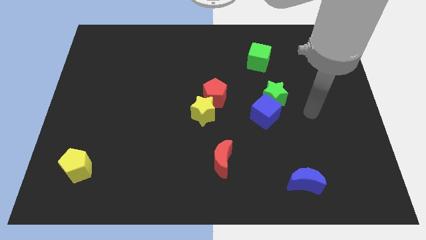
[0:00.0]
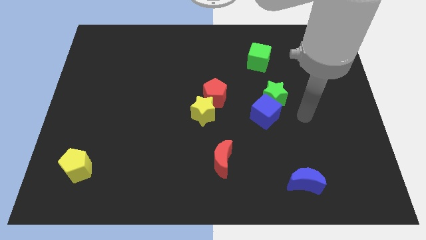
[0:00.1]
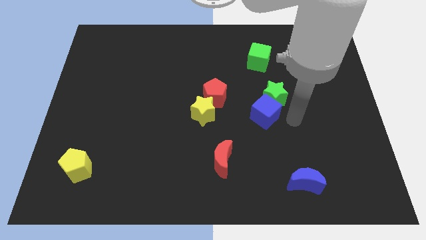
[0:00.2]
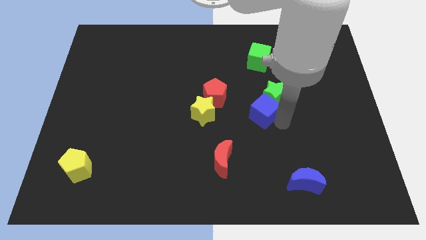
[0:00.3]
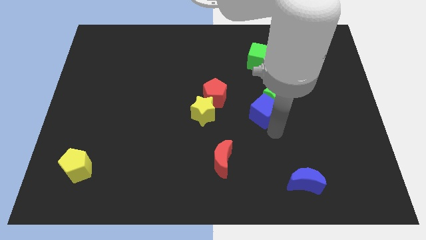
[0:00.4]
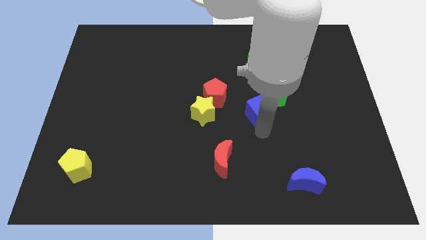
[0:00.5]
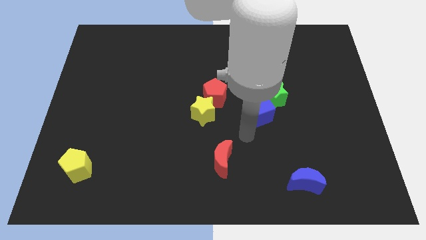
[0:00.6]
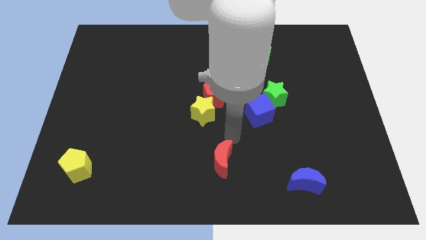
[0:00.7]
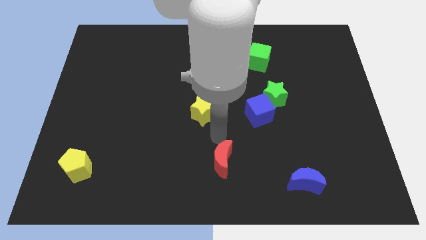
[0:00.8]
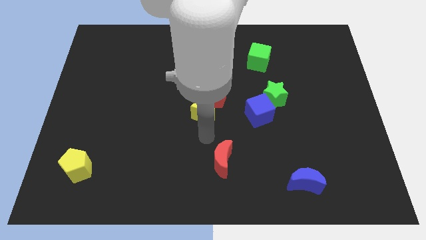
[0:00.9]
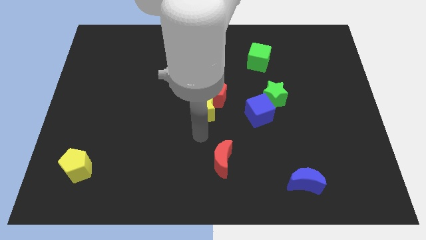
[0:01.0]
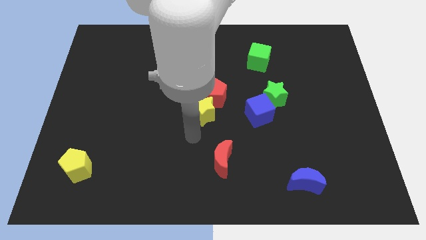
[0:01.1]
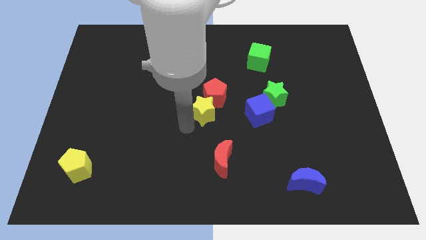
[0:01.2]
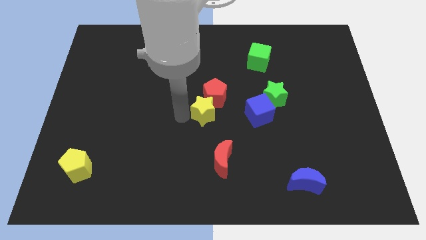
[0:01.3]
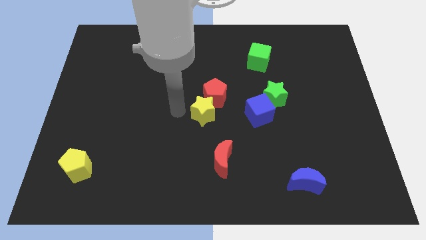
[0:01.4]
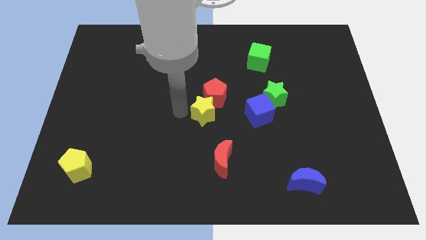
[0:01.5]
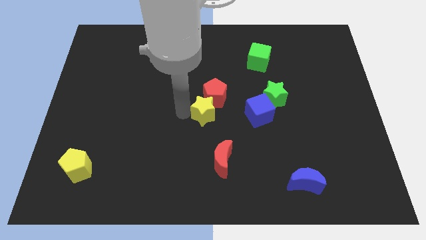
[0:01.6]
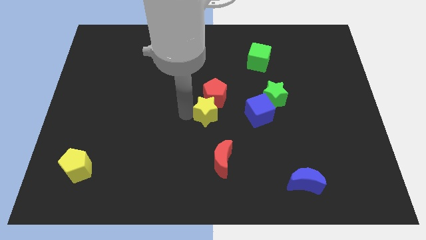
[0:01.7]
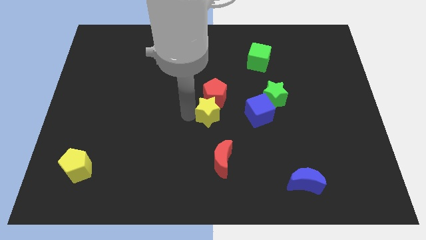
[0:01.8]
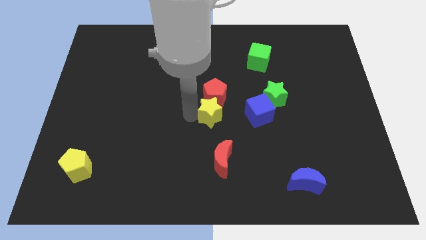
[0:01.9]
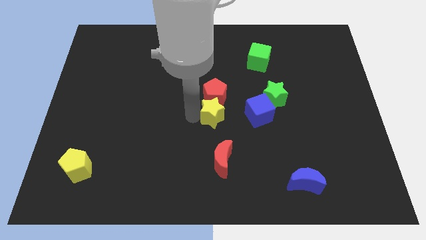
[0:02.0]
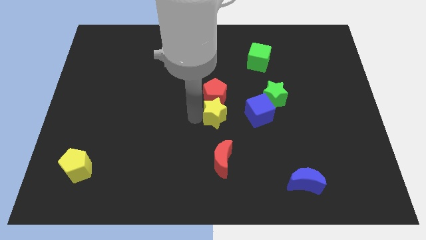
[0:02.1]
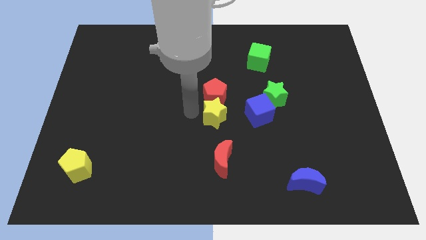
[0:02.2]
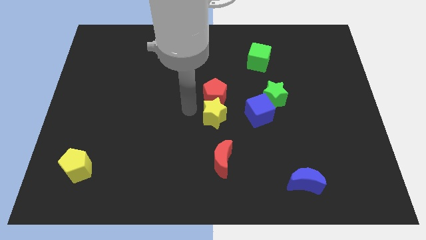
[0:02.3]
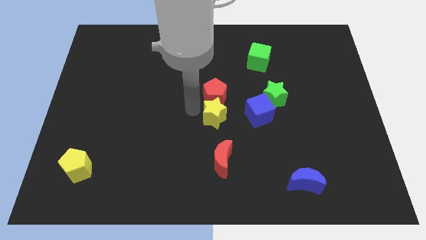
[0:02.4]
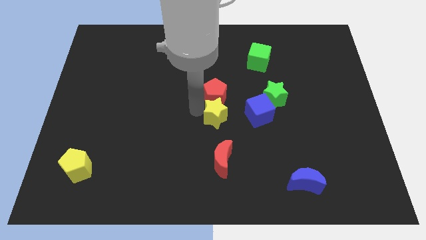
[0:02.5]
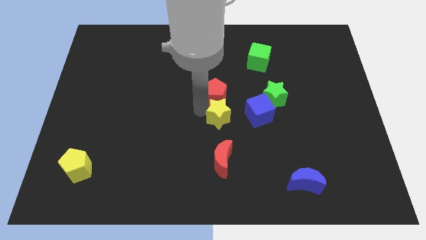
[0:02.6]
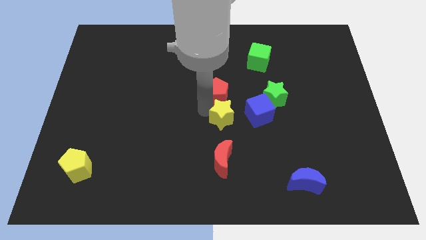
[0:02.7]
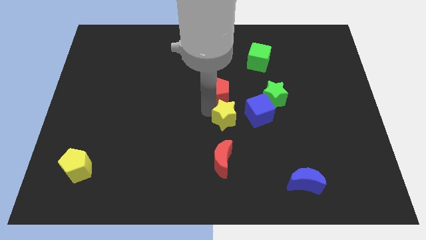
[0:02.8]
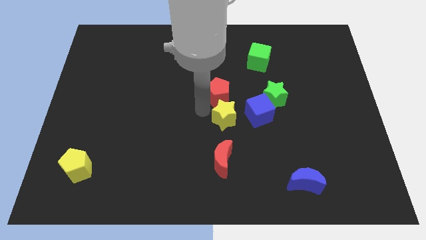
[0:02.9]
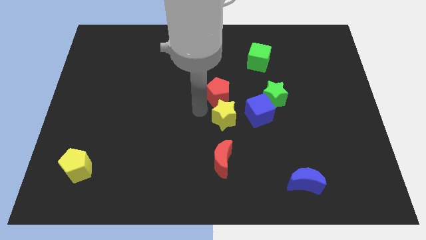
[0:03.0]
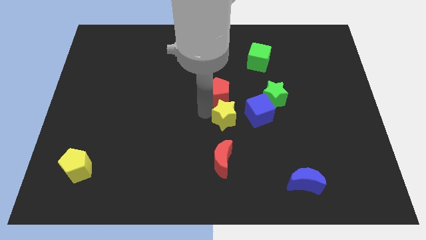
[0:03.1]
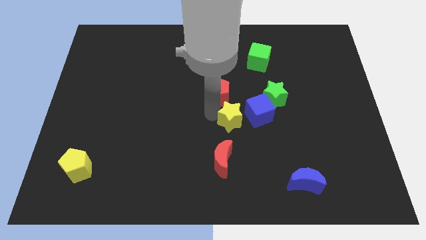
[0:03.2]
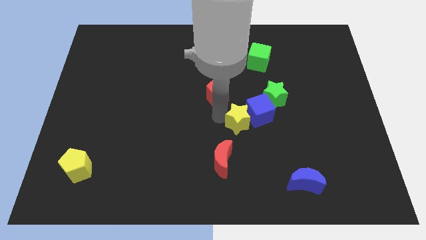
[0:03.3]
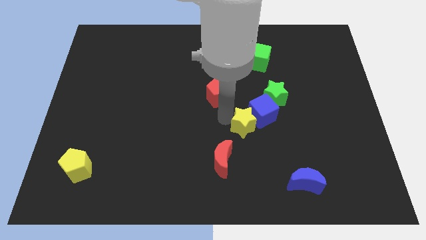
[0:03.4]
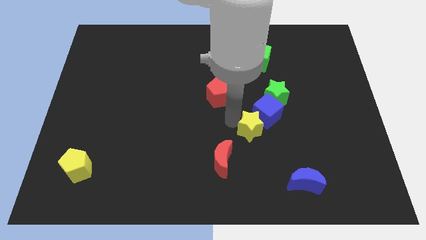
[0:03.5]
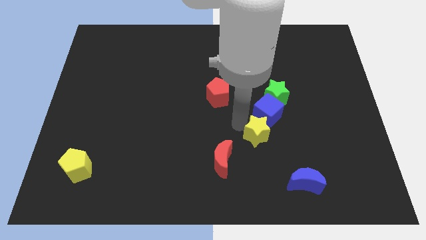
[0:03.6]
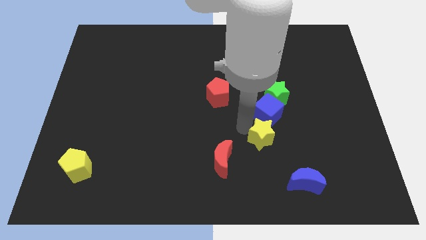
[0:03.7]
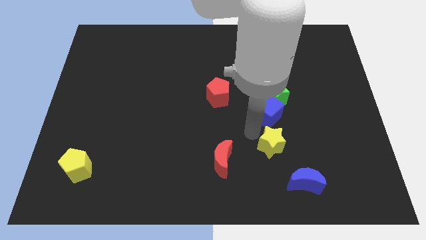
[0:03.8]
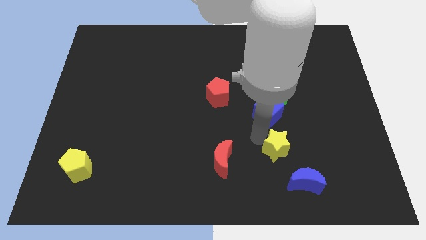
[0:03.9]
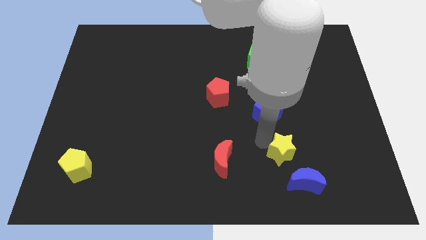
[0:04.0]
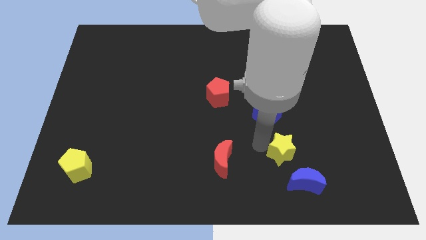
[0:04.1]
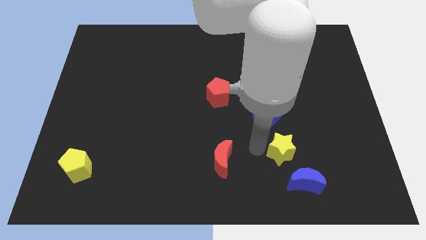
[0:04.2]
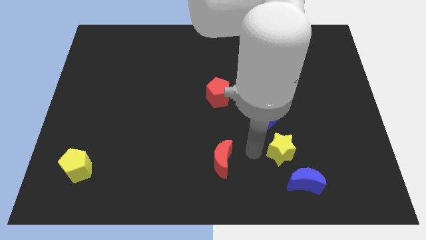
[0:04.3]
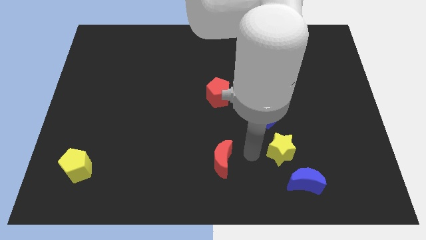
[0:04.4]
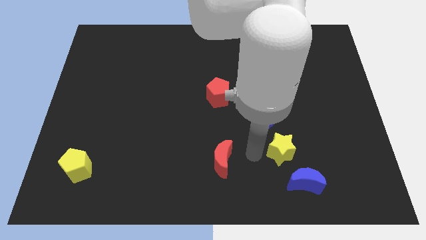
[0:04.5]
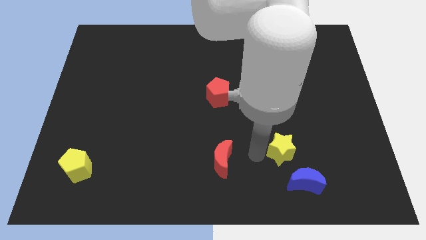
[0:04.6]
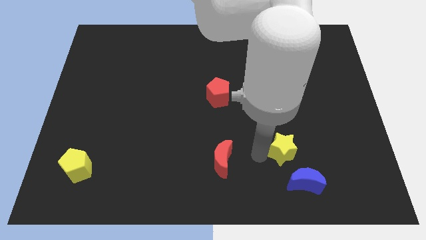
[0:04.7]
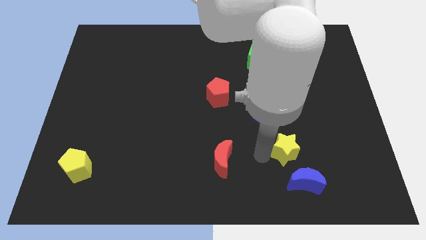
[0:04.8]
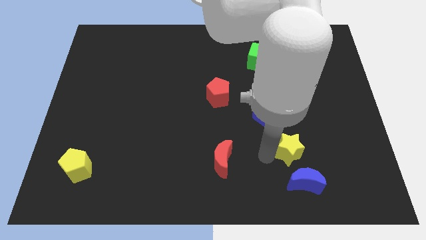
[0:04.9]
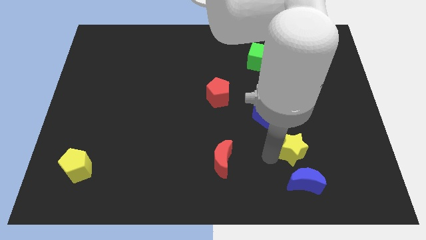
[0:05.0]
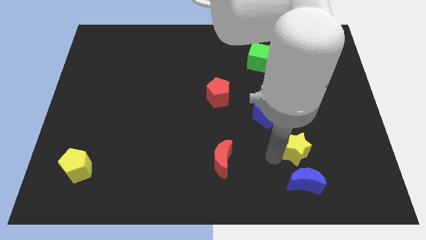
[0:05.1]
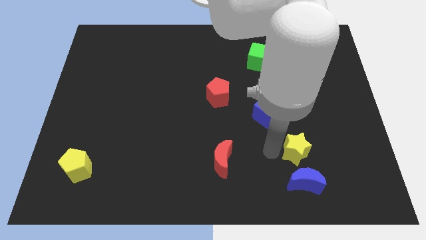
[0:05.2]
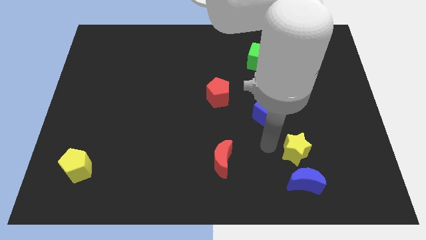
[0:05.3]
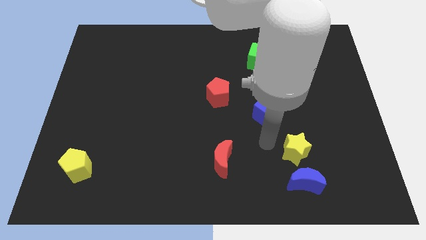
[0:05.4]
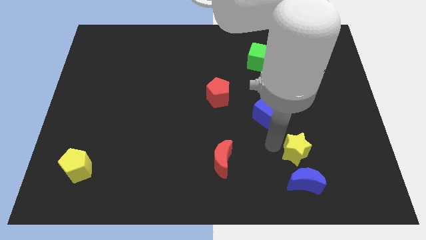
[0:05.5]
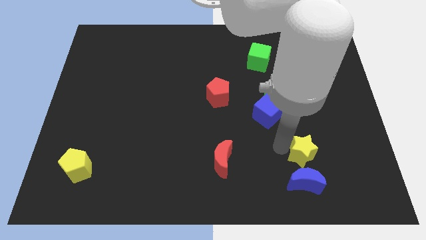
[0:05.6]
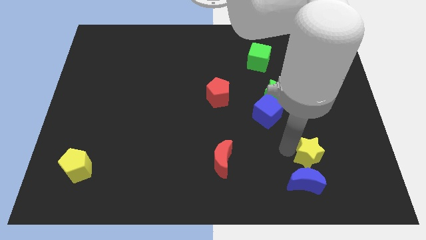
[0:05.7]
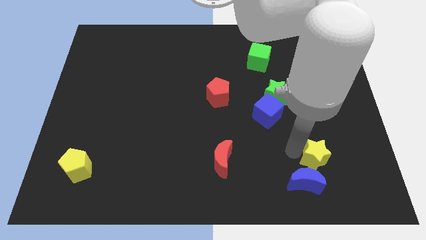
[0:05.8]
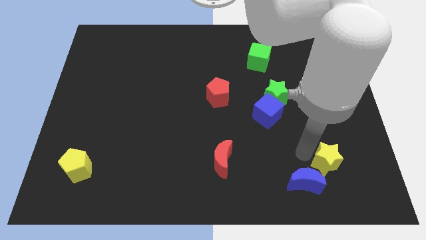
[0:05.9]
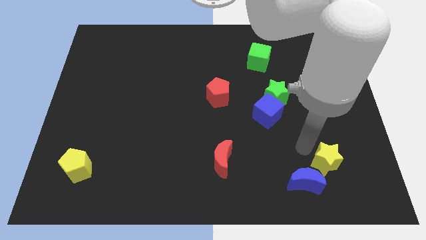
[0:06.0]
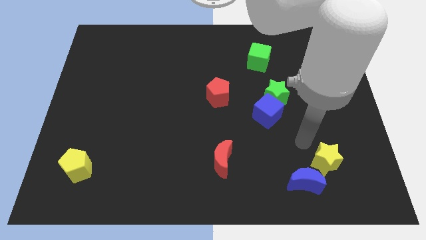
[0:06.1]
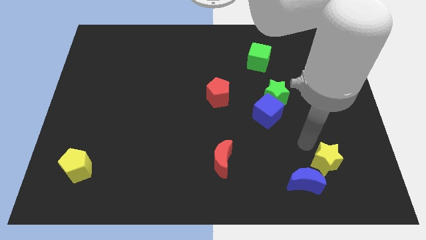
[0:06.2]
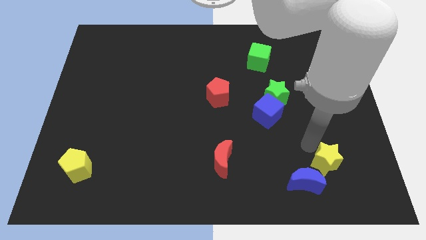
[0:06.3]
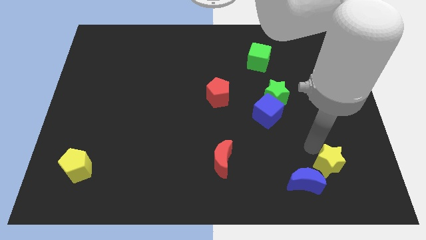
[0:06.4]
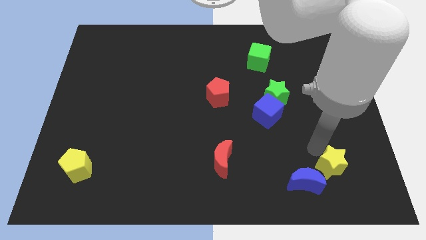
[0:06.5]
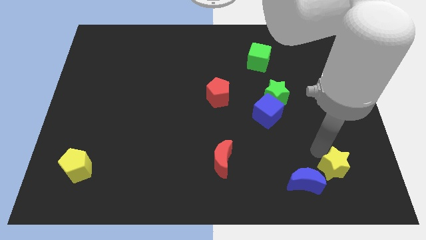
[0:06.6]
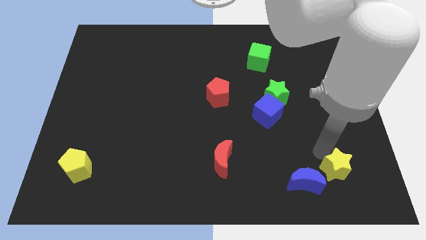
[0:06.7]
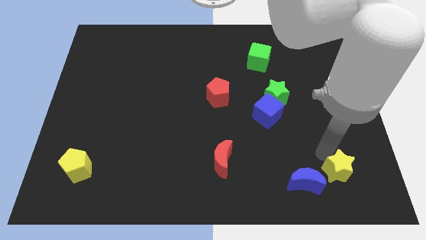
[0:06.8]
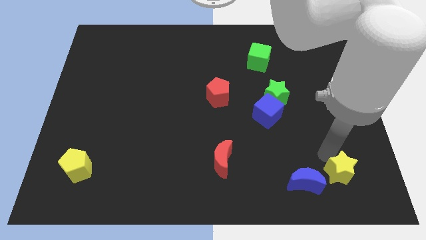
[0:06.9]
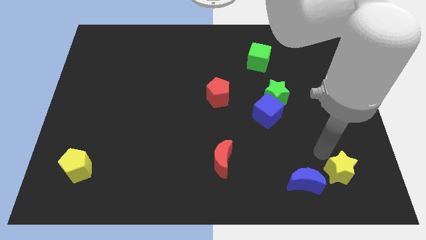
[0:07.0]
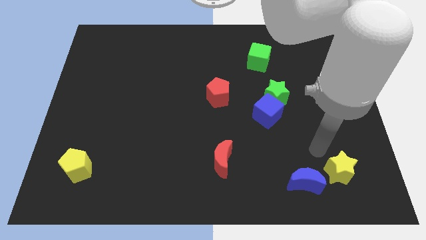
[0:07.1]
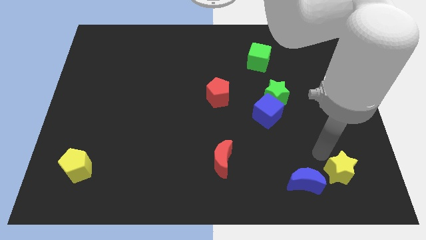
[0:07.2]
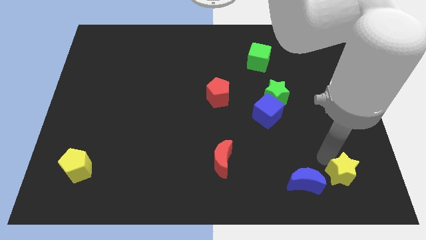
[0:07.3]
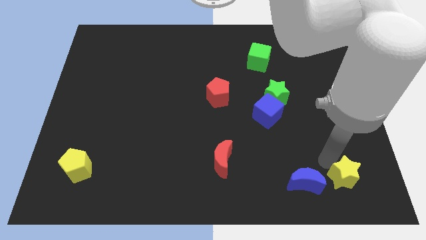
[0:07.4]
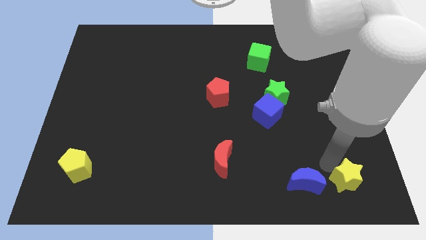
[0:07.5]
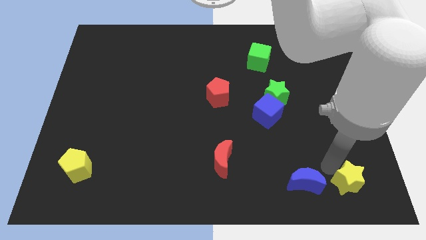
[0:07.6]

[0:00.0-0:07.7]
push the yellow star to the bottom right corner
